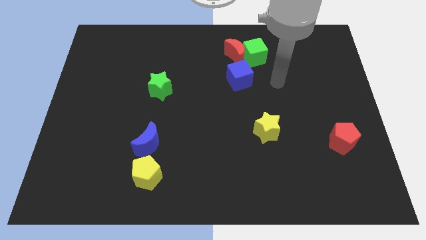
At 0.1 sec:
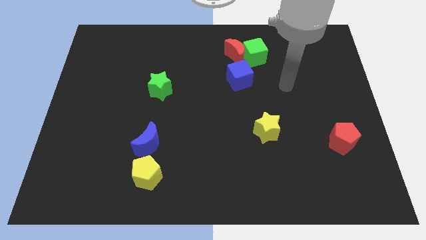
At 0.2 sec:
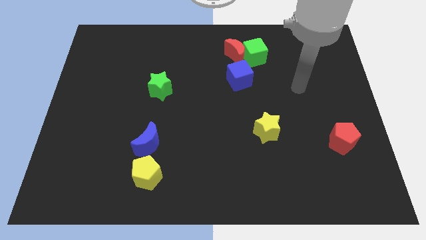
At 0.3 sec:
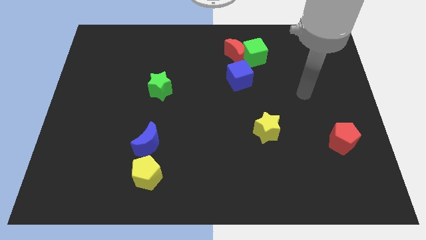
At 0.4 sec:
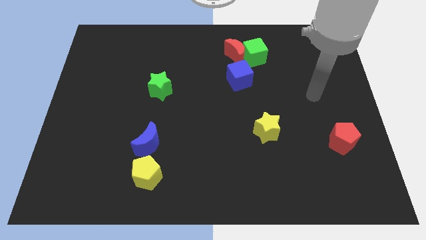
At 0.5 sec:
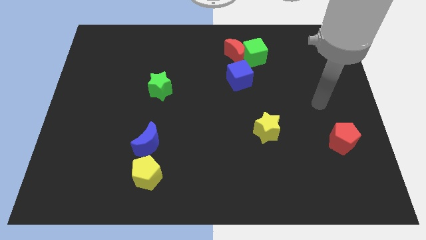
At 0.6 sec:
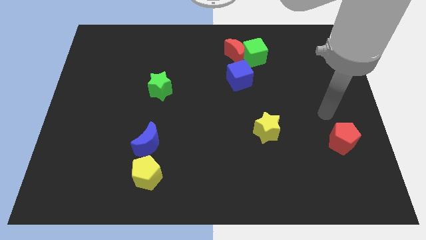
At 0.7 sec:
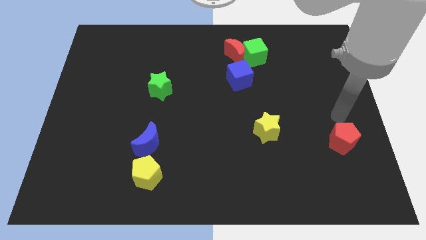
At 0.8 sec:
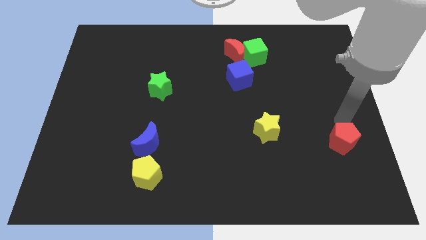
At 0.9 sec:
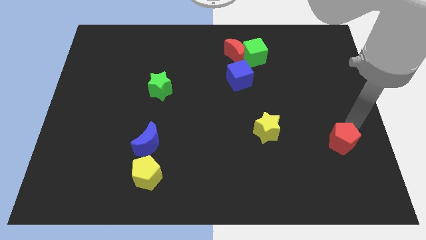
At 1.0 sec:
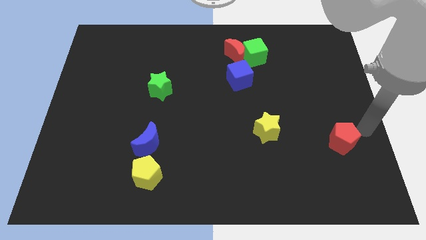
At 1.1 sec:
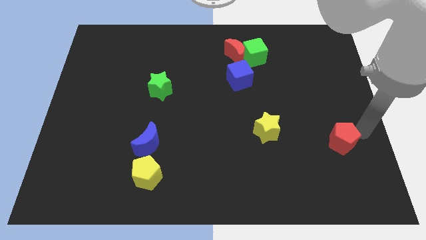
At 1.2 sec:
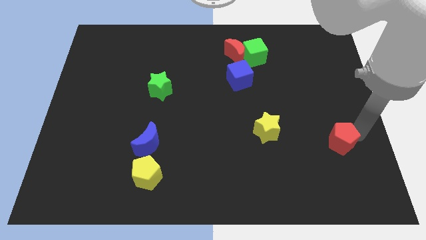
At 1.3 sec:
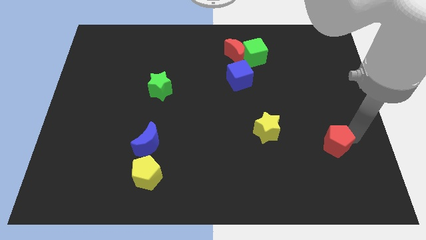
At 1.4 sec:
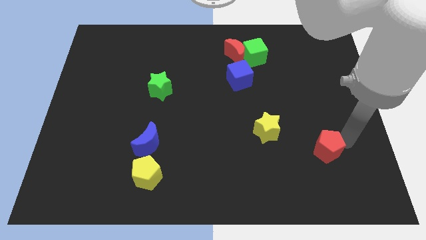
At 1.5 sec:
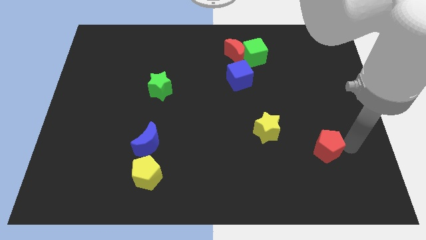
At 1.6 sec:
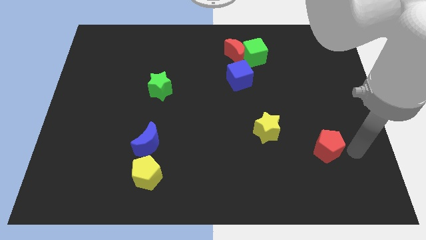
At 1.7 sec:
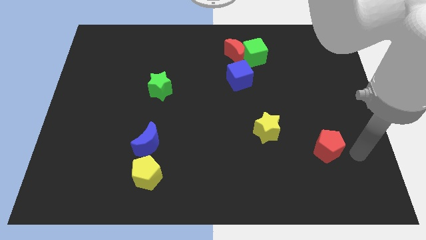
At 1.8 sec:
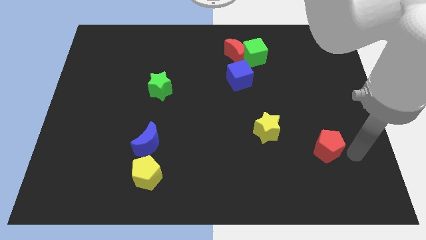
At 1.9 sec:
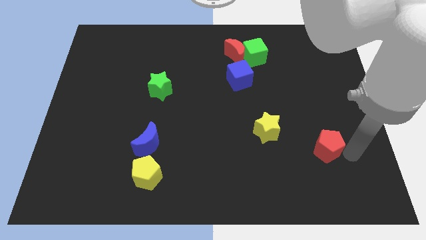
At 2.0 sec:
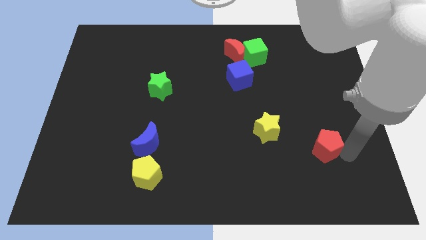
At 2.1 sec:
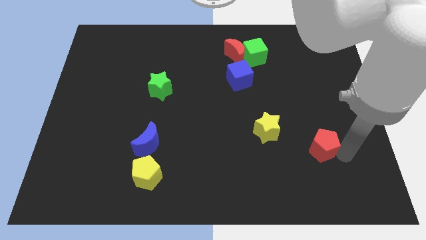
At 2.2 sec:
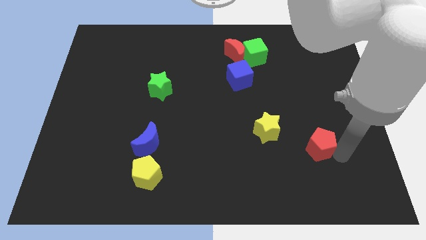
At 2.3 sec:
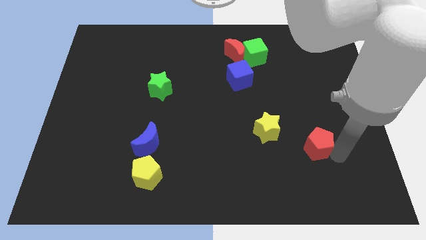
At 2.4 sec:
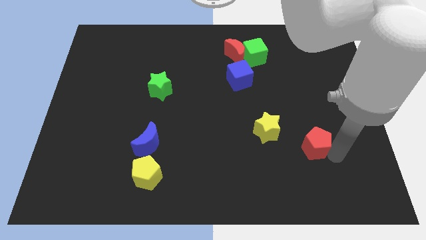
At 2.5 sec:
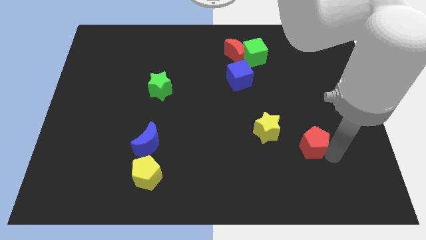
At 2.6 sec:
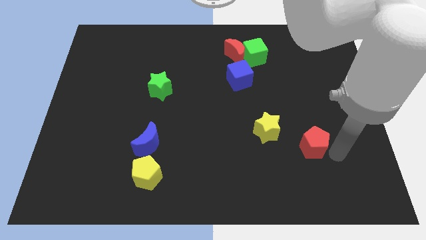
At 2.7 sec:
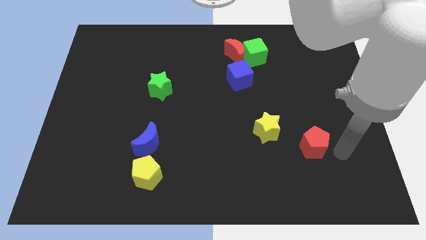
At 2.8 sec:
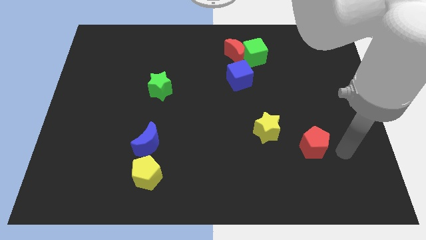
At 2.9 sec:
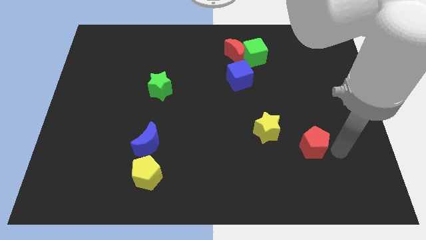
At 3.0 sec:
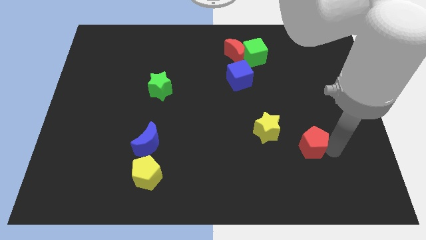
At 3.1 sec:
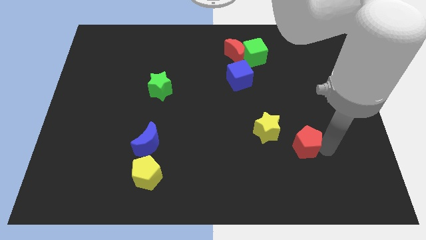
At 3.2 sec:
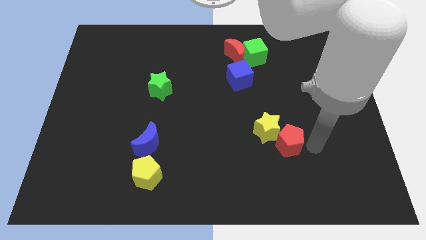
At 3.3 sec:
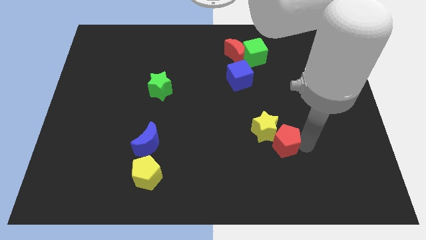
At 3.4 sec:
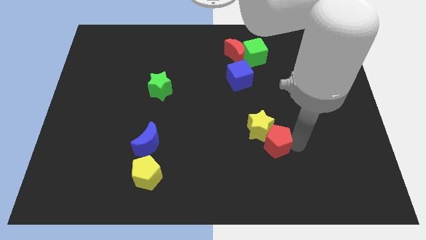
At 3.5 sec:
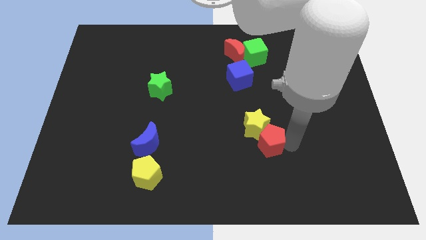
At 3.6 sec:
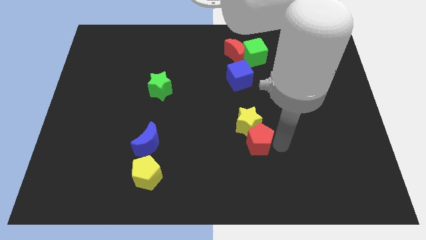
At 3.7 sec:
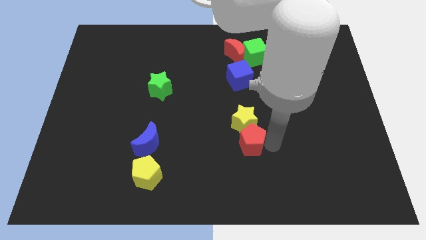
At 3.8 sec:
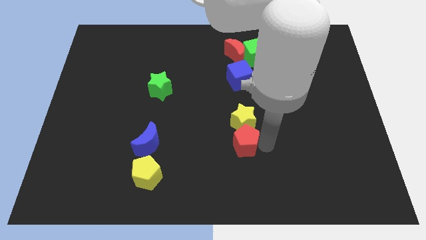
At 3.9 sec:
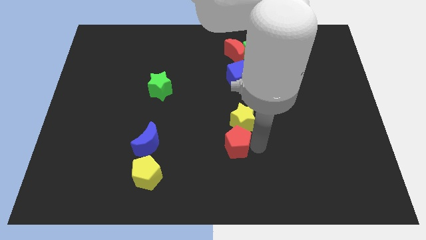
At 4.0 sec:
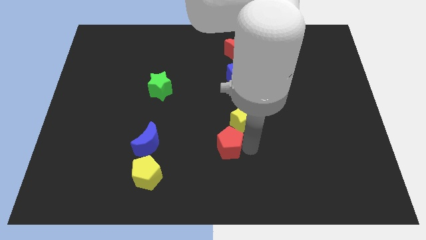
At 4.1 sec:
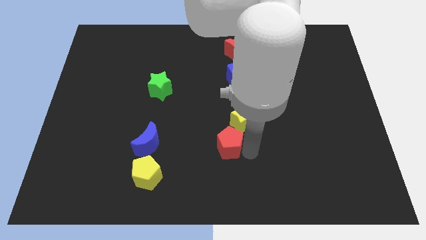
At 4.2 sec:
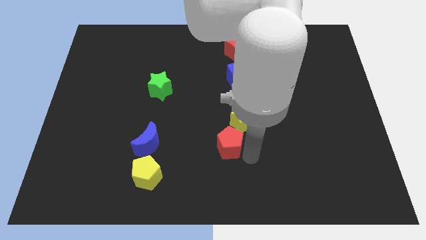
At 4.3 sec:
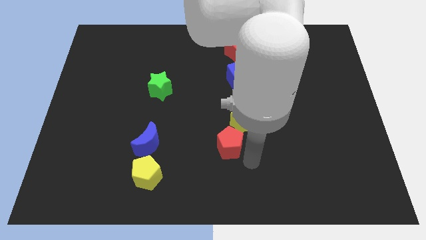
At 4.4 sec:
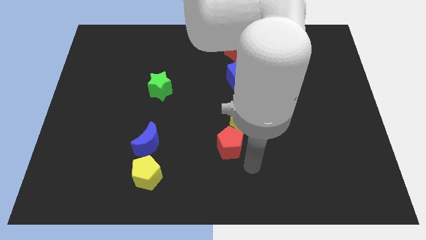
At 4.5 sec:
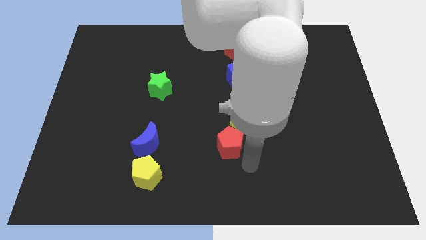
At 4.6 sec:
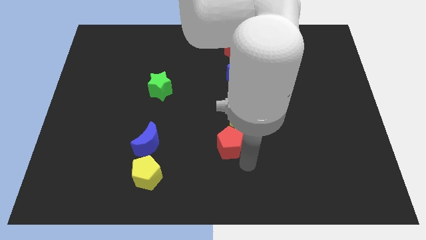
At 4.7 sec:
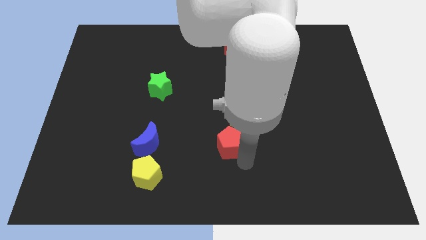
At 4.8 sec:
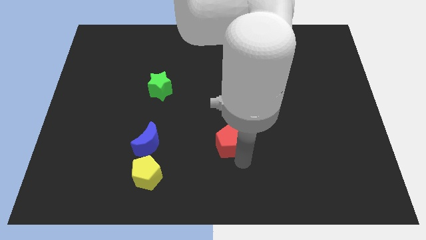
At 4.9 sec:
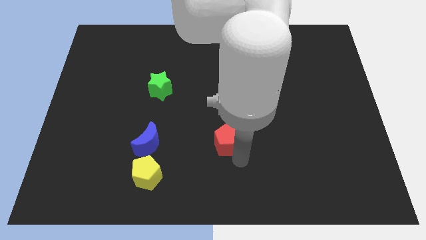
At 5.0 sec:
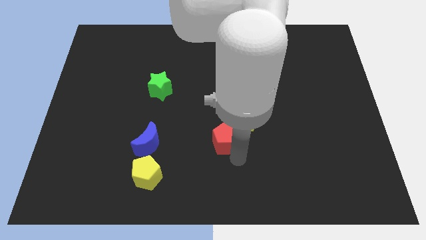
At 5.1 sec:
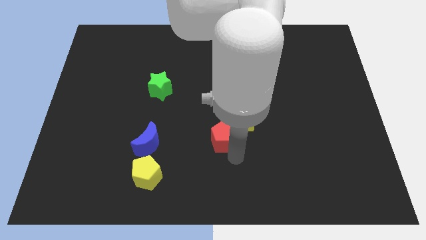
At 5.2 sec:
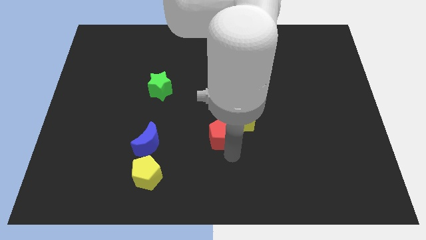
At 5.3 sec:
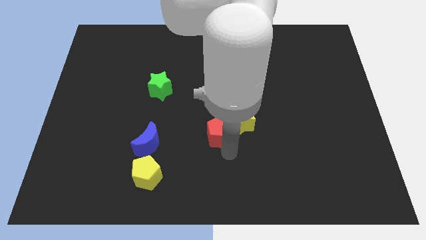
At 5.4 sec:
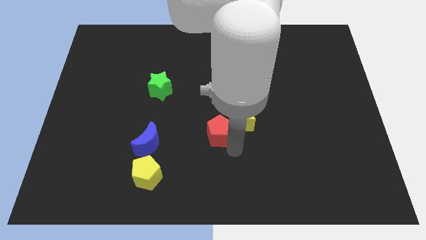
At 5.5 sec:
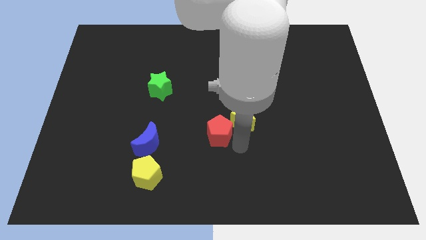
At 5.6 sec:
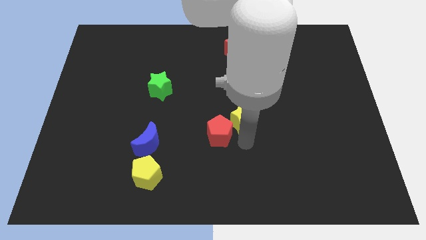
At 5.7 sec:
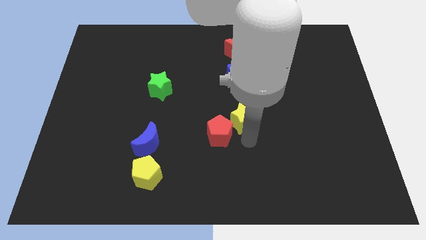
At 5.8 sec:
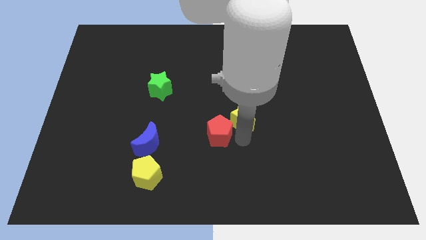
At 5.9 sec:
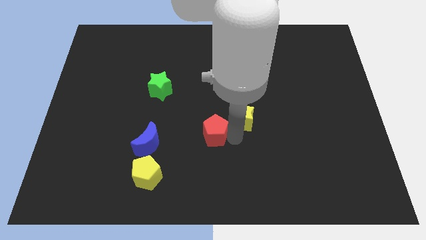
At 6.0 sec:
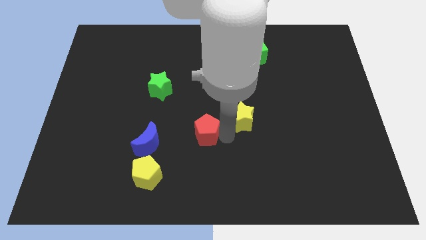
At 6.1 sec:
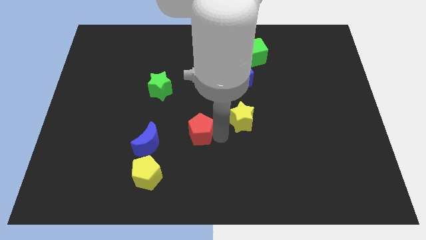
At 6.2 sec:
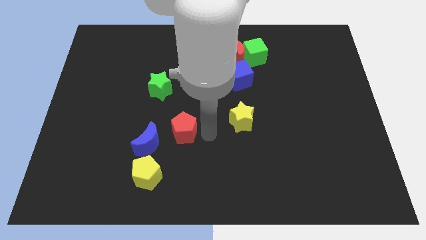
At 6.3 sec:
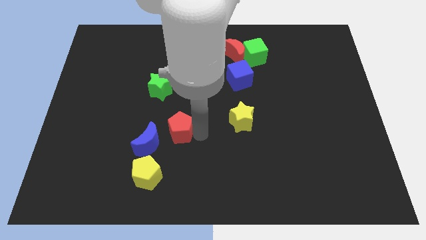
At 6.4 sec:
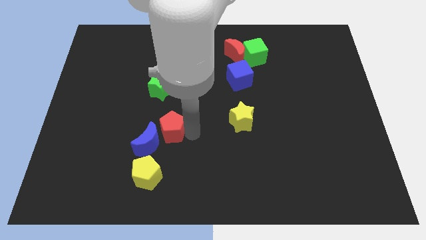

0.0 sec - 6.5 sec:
slide the red pentagon to the bottom of the green star
